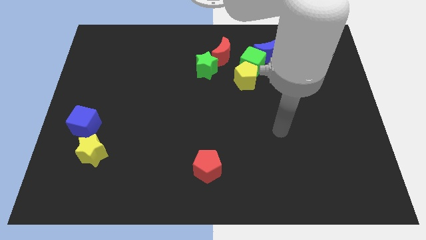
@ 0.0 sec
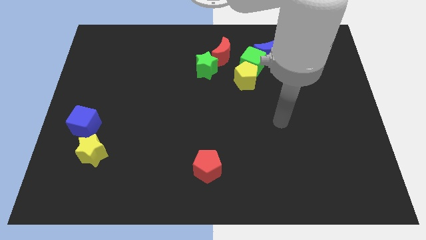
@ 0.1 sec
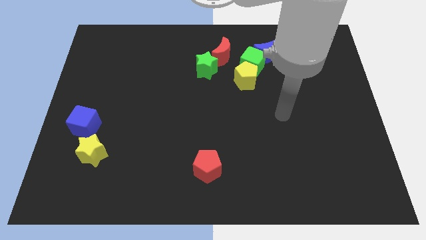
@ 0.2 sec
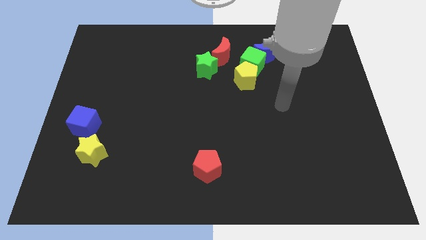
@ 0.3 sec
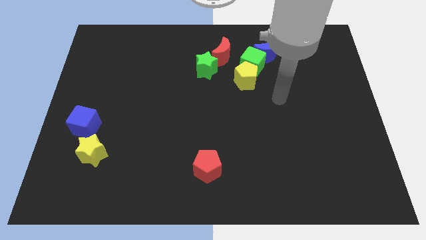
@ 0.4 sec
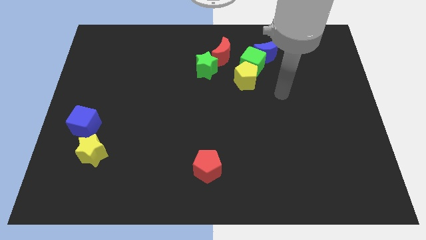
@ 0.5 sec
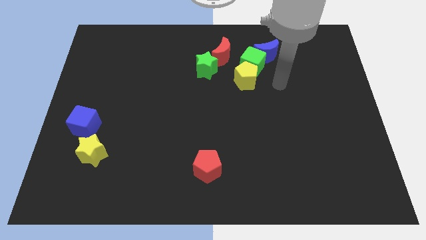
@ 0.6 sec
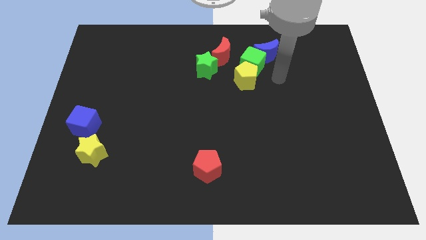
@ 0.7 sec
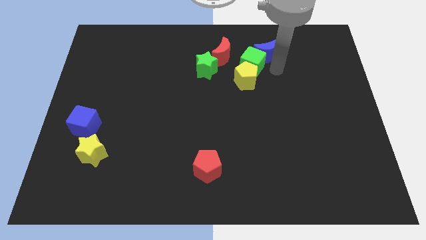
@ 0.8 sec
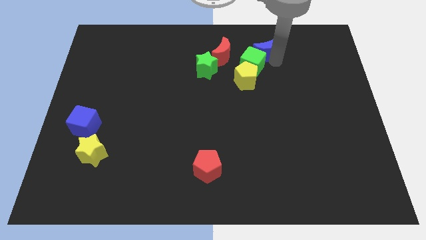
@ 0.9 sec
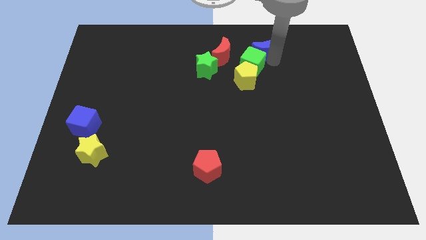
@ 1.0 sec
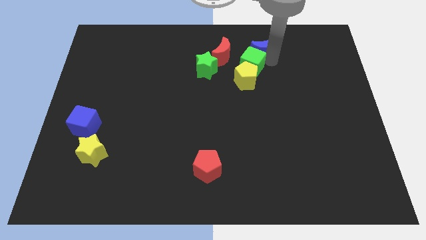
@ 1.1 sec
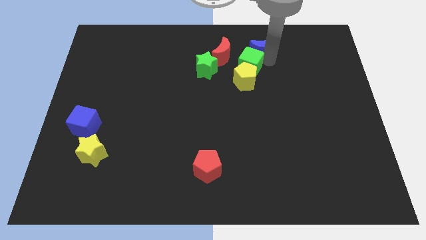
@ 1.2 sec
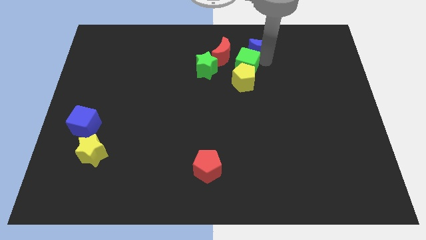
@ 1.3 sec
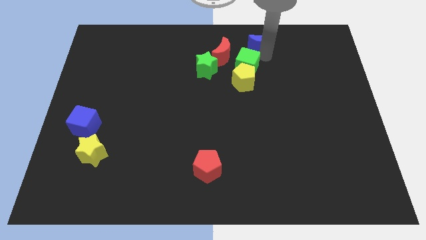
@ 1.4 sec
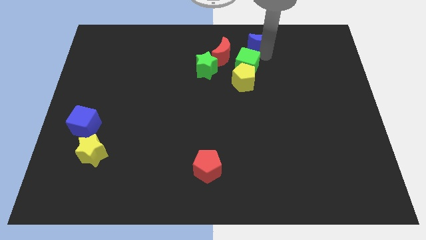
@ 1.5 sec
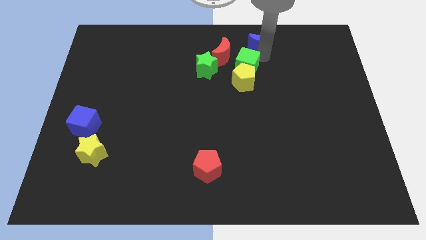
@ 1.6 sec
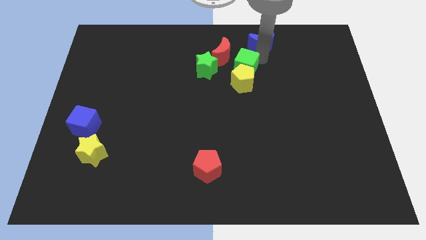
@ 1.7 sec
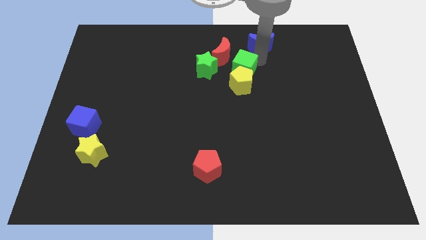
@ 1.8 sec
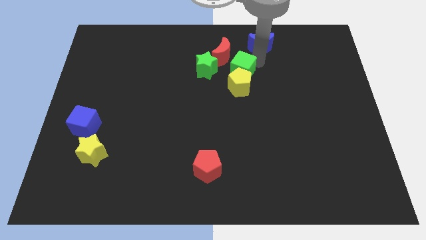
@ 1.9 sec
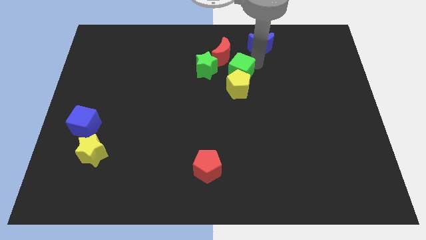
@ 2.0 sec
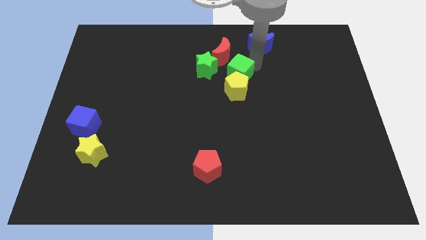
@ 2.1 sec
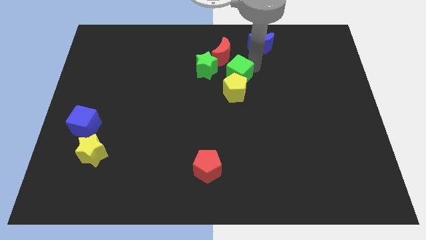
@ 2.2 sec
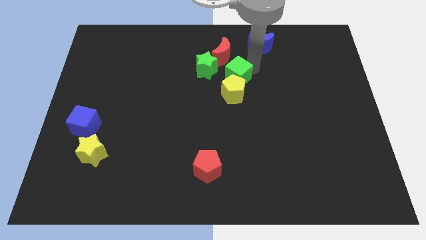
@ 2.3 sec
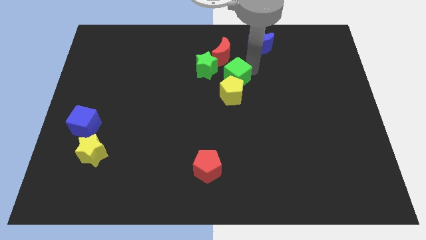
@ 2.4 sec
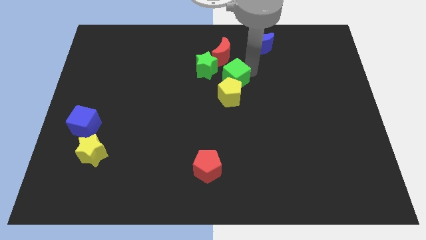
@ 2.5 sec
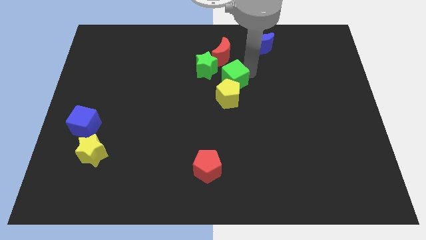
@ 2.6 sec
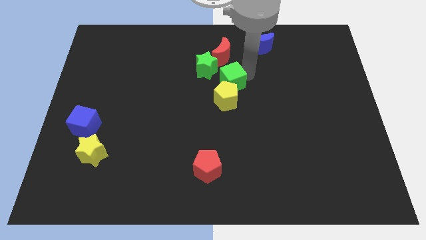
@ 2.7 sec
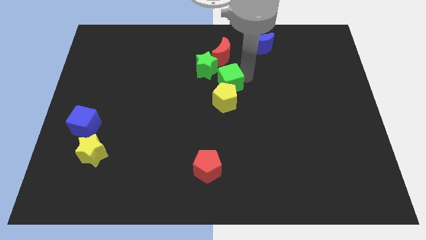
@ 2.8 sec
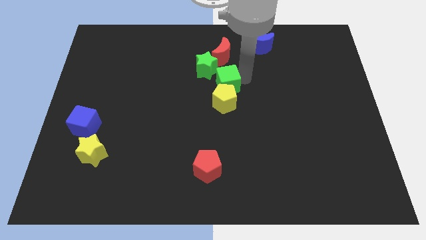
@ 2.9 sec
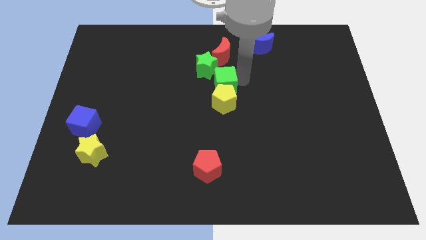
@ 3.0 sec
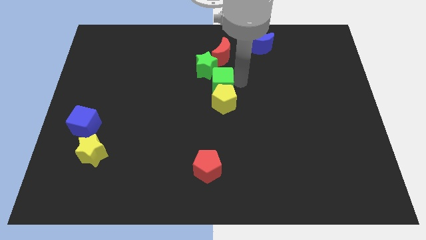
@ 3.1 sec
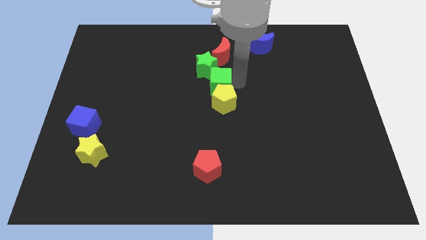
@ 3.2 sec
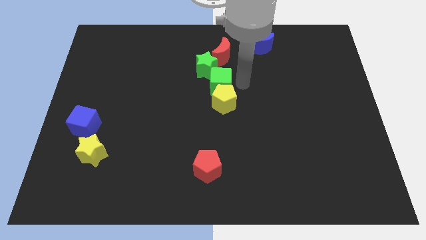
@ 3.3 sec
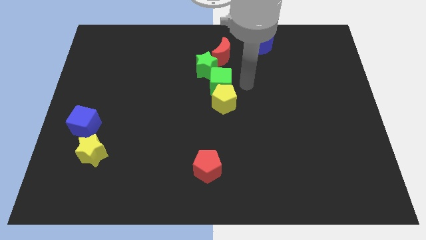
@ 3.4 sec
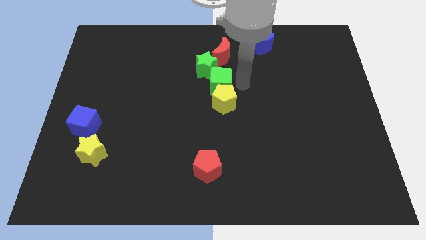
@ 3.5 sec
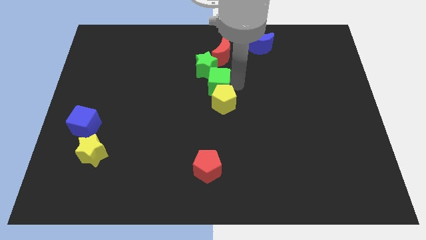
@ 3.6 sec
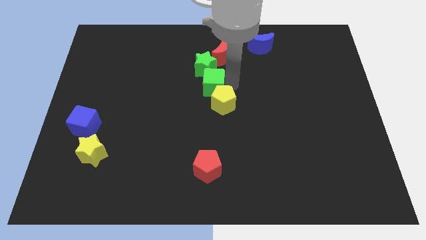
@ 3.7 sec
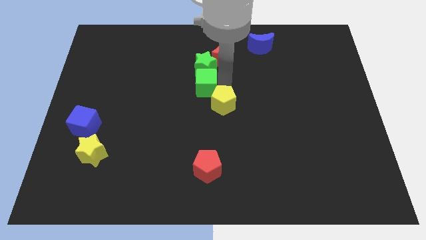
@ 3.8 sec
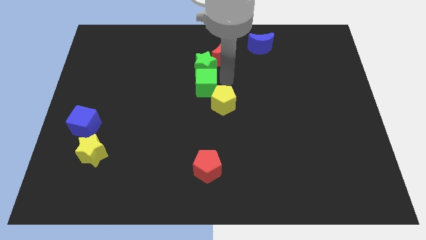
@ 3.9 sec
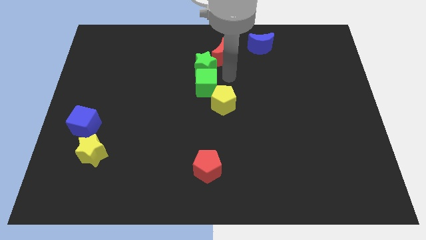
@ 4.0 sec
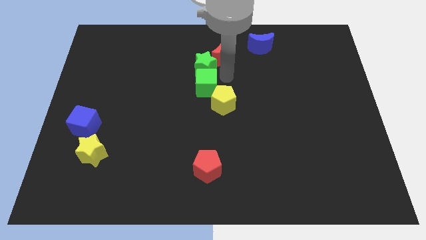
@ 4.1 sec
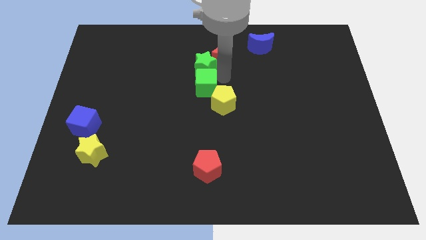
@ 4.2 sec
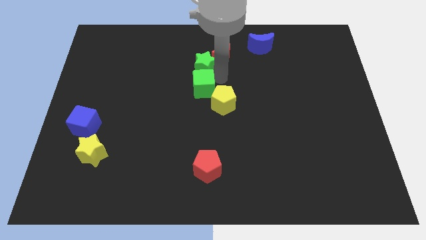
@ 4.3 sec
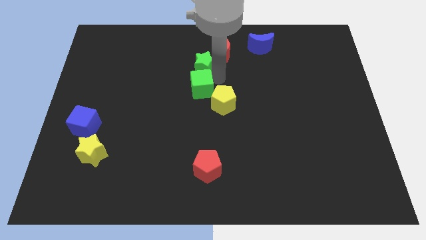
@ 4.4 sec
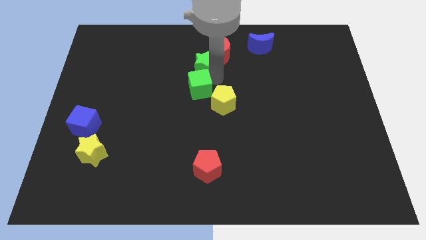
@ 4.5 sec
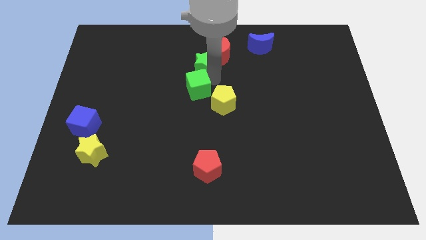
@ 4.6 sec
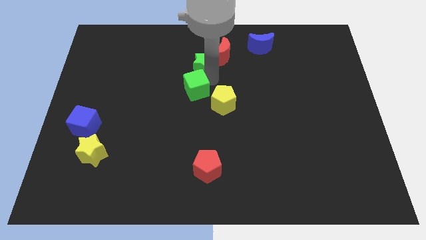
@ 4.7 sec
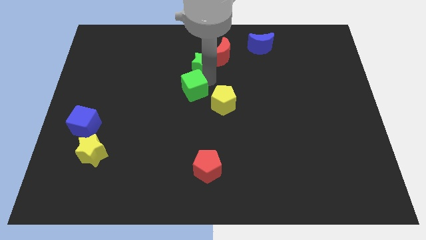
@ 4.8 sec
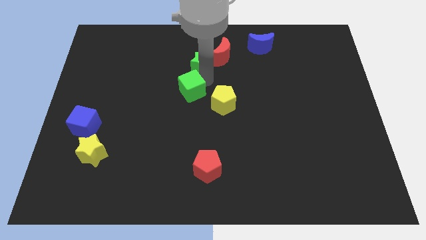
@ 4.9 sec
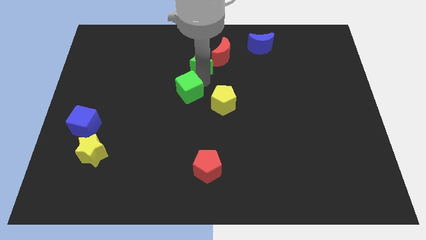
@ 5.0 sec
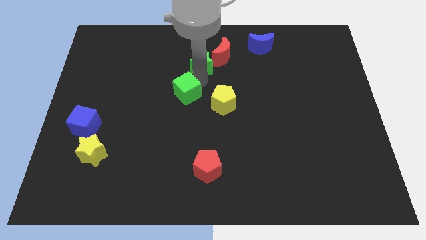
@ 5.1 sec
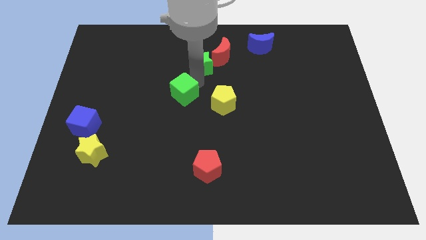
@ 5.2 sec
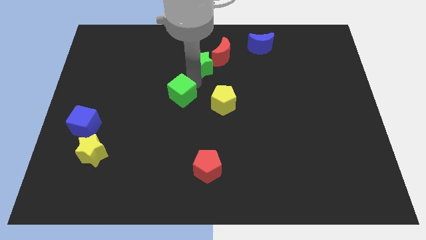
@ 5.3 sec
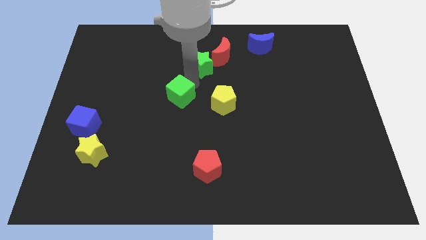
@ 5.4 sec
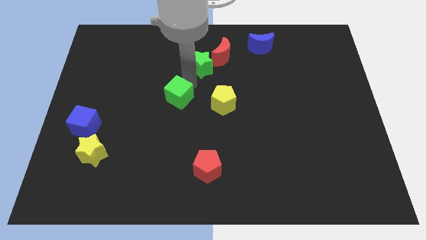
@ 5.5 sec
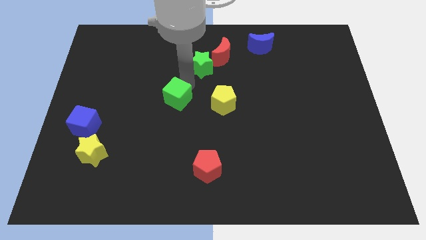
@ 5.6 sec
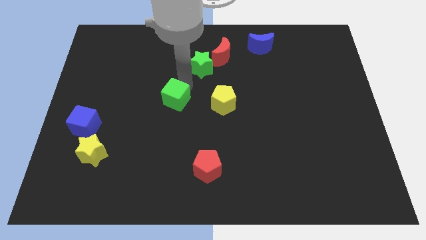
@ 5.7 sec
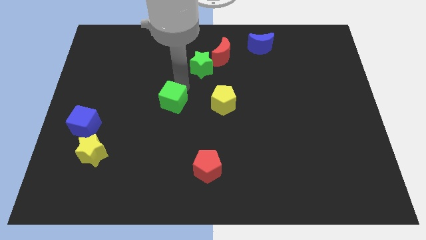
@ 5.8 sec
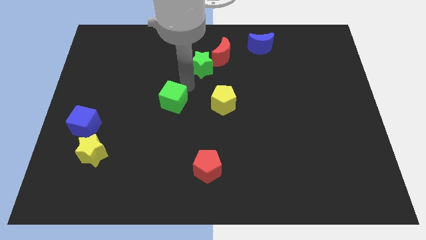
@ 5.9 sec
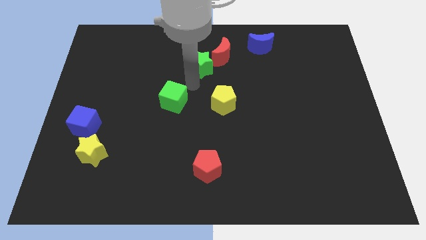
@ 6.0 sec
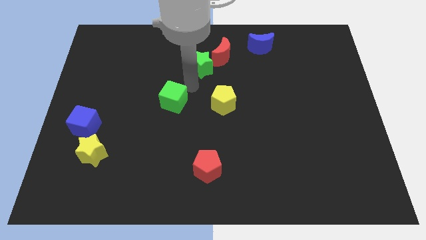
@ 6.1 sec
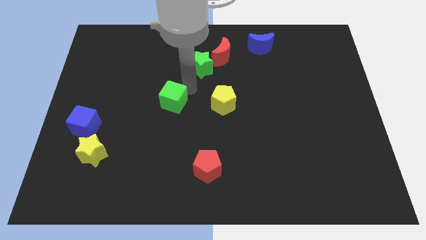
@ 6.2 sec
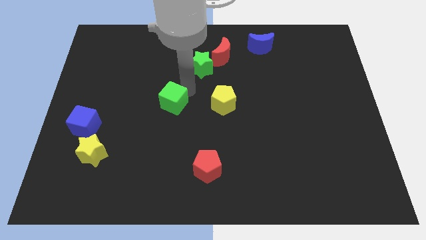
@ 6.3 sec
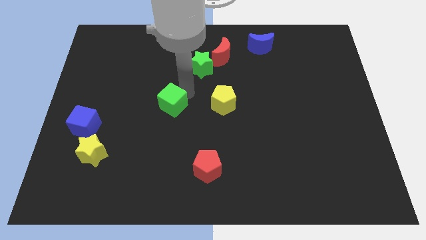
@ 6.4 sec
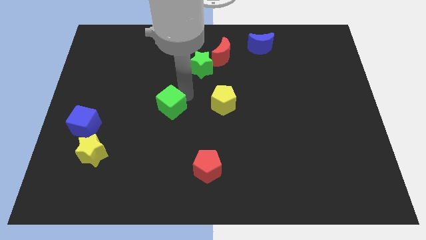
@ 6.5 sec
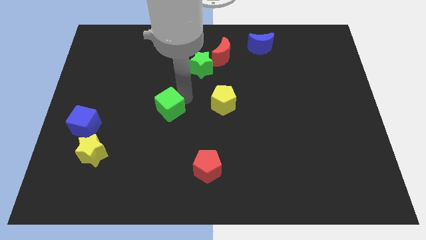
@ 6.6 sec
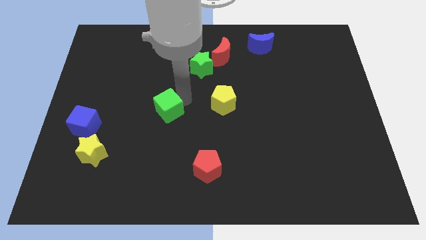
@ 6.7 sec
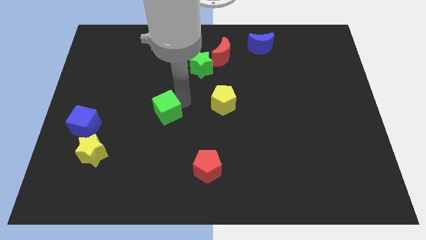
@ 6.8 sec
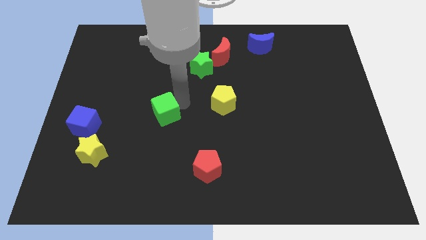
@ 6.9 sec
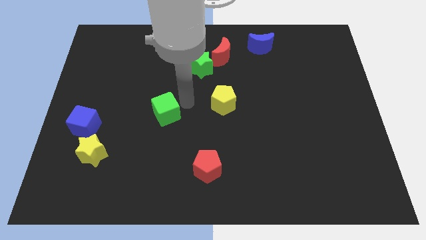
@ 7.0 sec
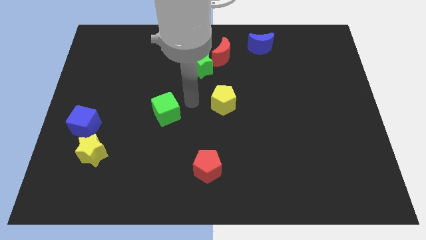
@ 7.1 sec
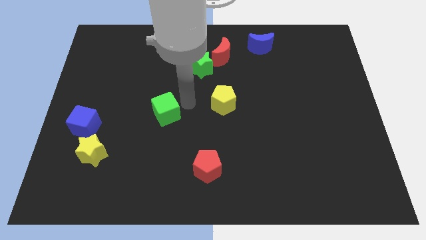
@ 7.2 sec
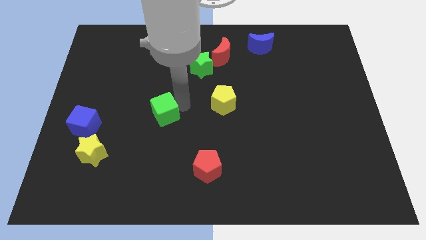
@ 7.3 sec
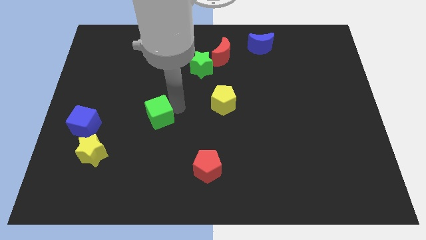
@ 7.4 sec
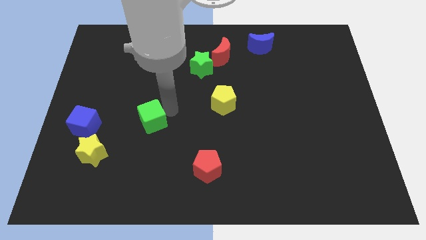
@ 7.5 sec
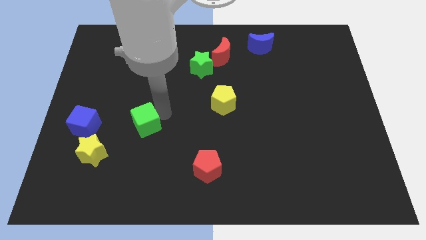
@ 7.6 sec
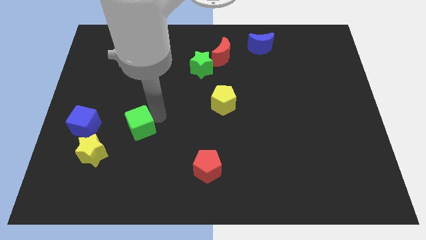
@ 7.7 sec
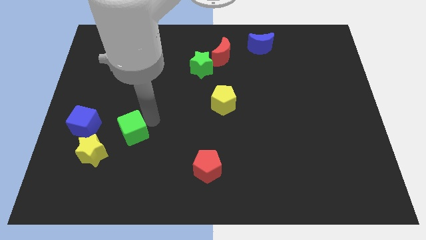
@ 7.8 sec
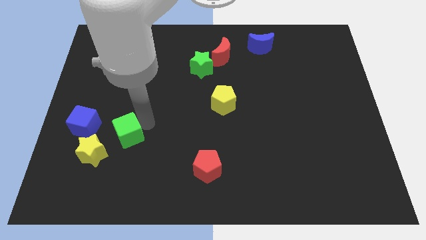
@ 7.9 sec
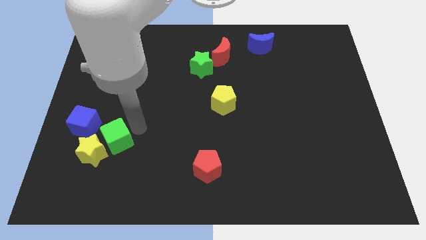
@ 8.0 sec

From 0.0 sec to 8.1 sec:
push the green cube towards the yellow star
